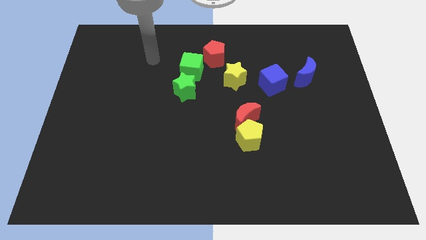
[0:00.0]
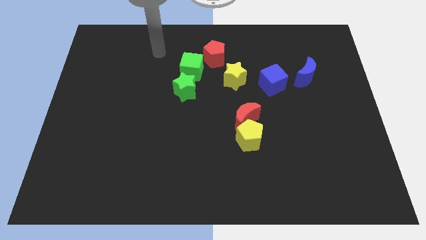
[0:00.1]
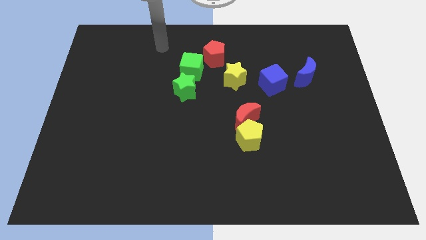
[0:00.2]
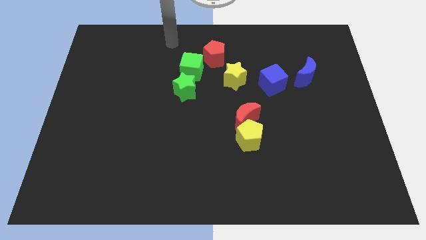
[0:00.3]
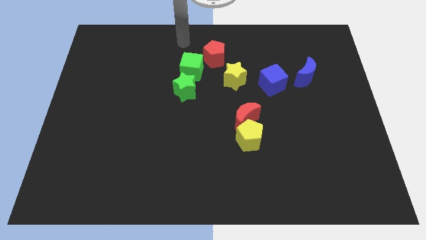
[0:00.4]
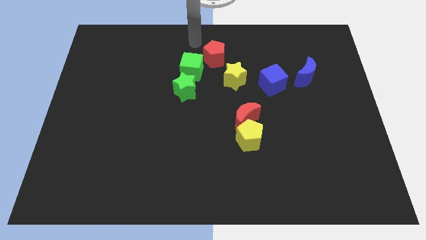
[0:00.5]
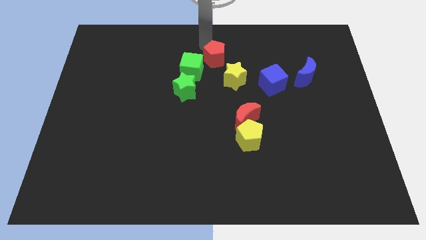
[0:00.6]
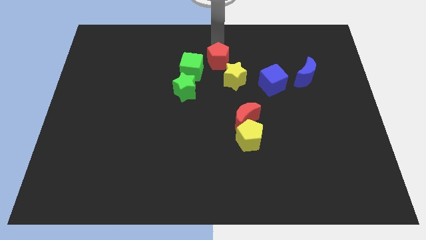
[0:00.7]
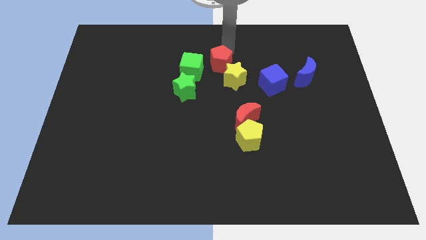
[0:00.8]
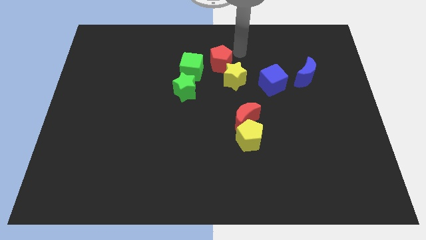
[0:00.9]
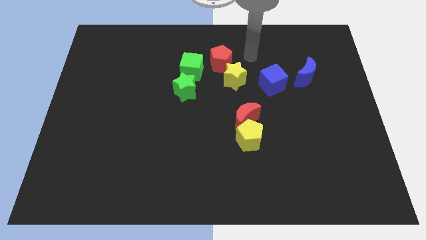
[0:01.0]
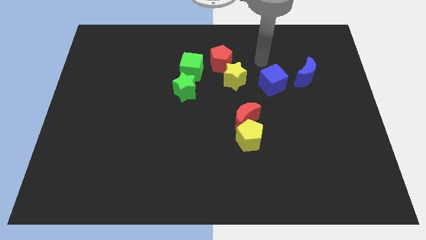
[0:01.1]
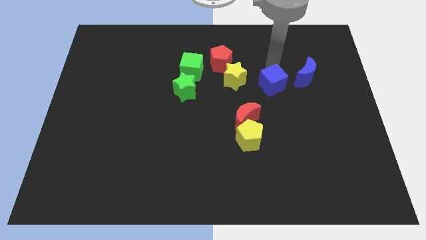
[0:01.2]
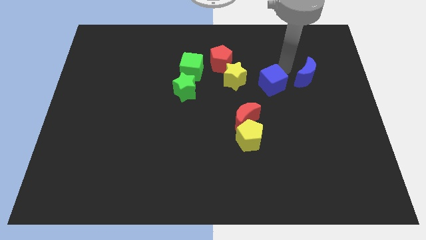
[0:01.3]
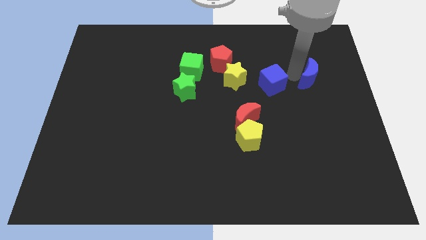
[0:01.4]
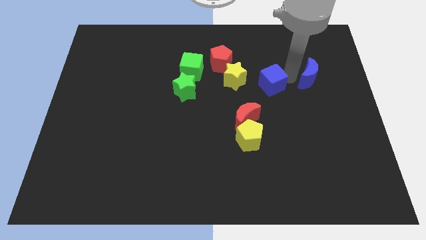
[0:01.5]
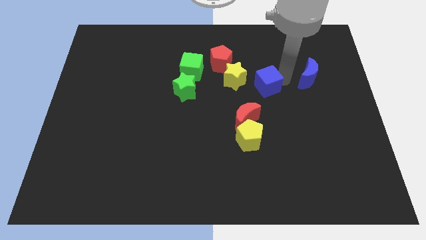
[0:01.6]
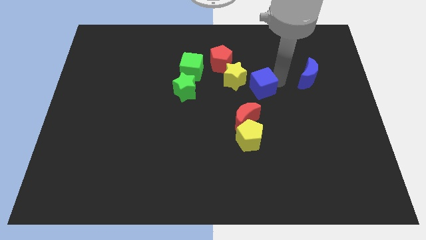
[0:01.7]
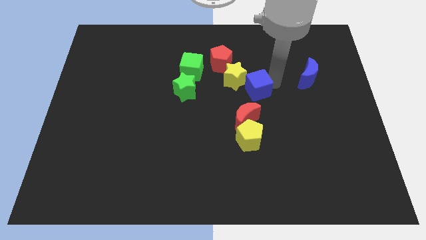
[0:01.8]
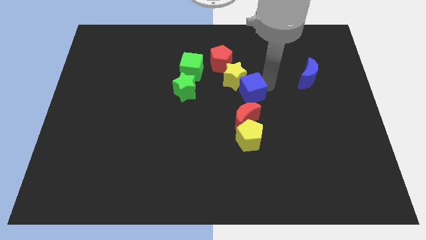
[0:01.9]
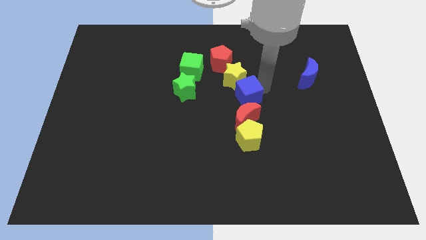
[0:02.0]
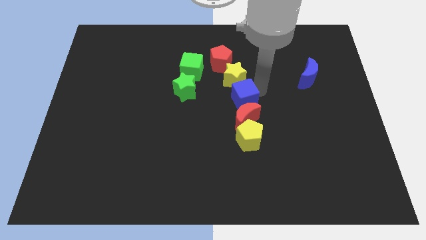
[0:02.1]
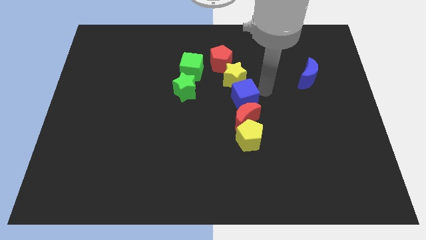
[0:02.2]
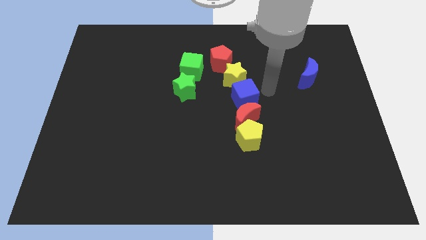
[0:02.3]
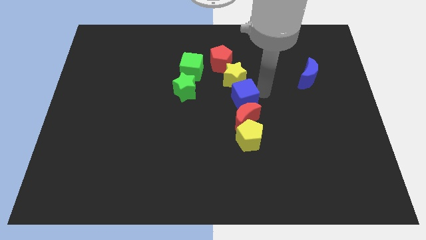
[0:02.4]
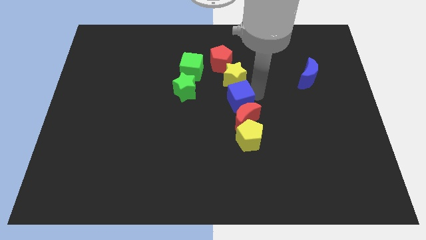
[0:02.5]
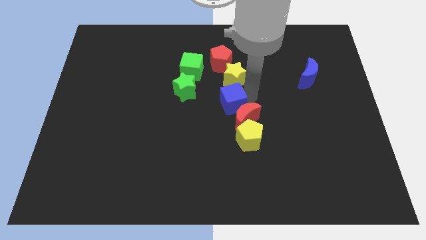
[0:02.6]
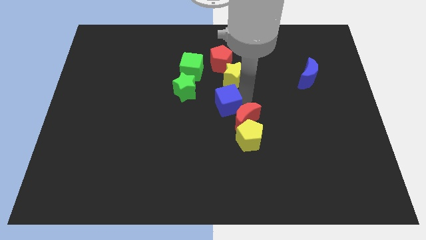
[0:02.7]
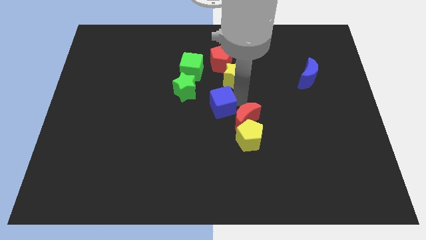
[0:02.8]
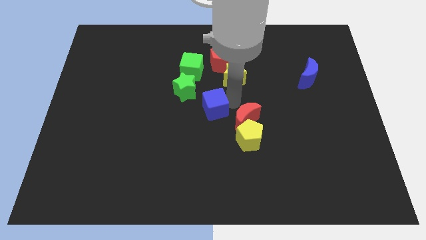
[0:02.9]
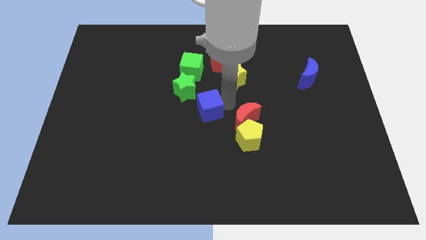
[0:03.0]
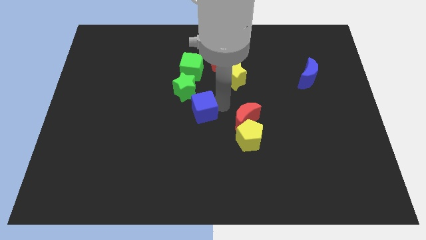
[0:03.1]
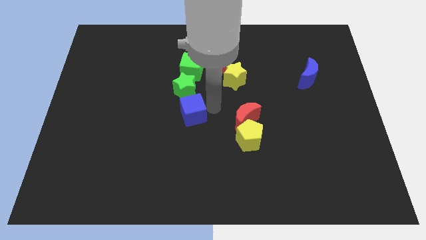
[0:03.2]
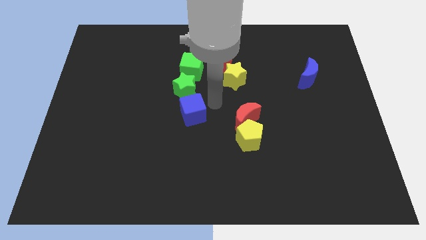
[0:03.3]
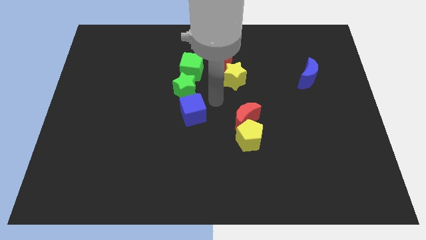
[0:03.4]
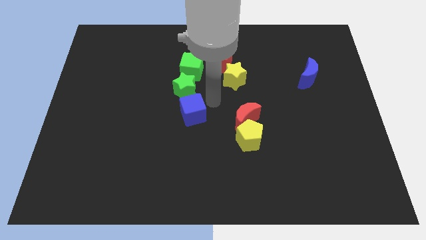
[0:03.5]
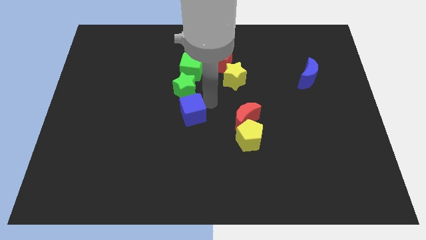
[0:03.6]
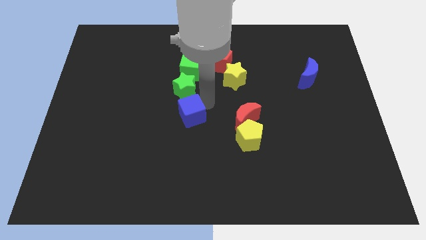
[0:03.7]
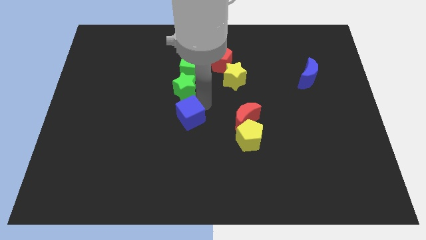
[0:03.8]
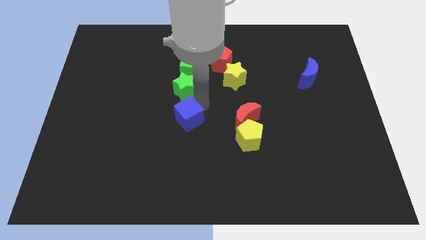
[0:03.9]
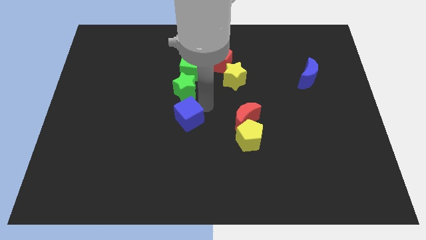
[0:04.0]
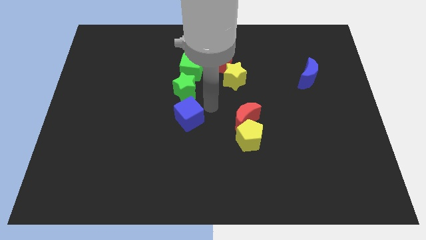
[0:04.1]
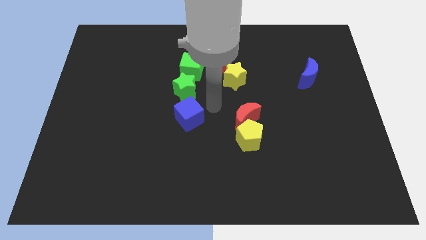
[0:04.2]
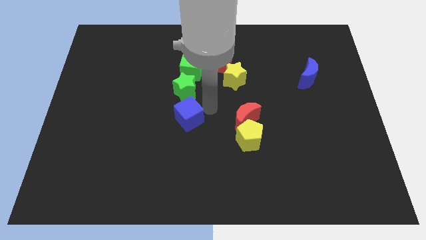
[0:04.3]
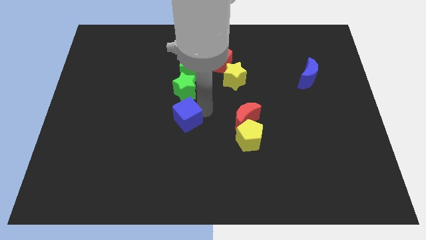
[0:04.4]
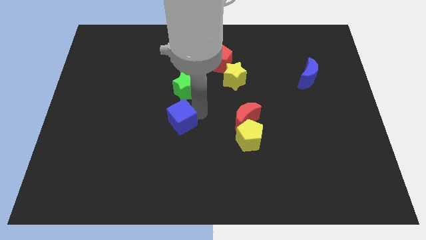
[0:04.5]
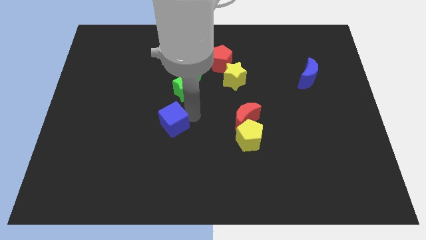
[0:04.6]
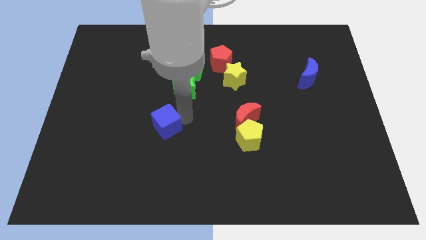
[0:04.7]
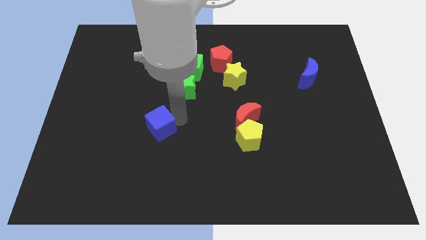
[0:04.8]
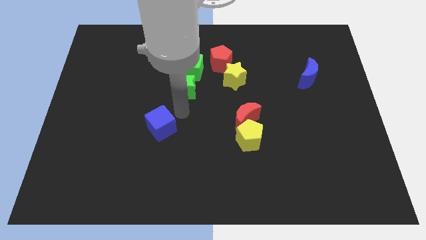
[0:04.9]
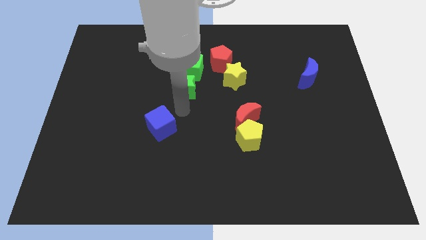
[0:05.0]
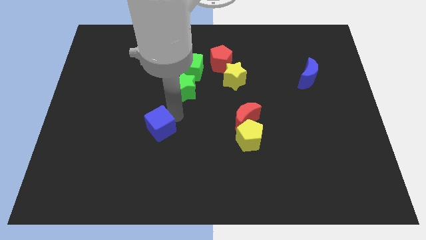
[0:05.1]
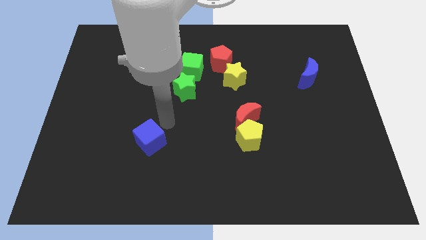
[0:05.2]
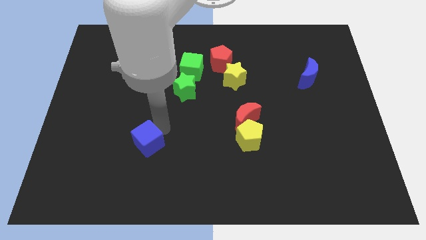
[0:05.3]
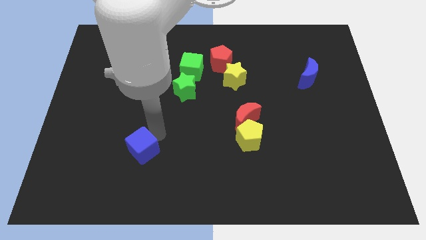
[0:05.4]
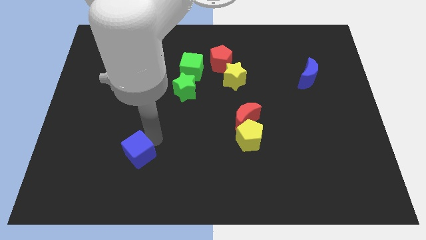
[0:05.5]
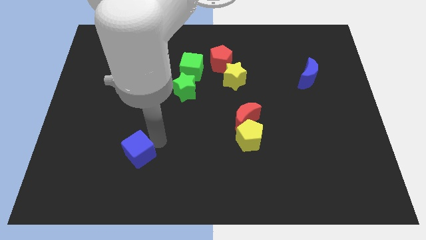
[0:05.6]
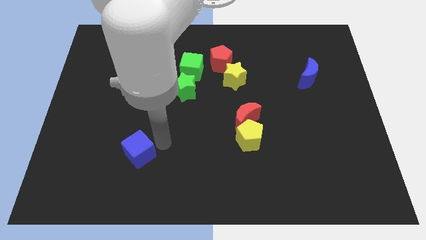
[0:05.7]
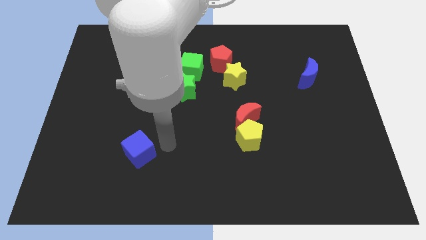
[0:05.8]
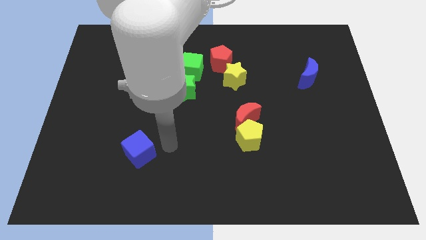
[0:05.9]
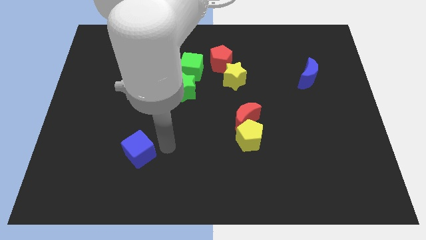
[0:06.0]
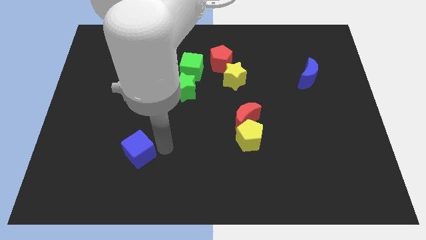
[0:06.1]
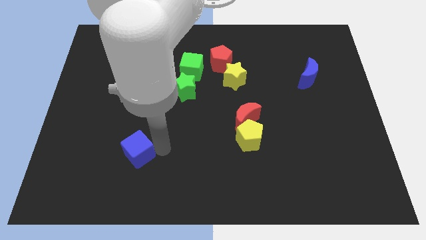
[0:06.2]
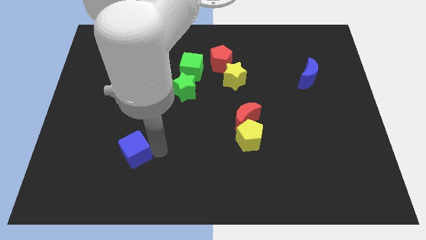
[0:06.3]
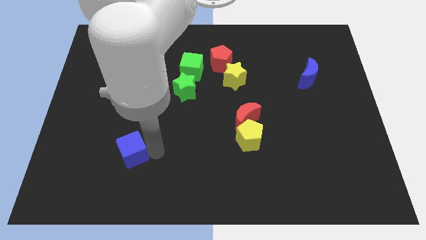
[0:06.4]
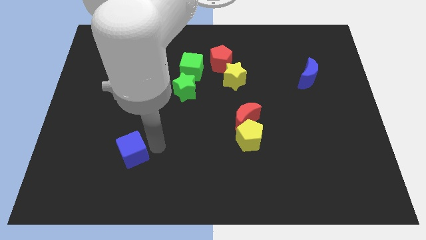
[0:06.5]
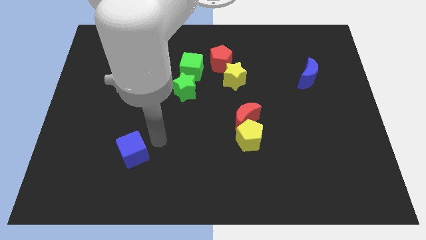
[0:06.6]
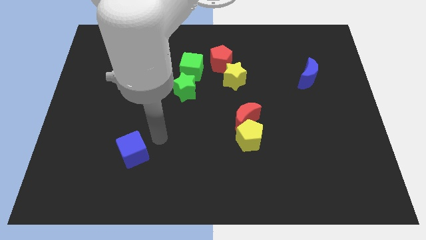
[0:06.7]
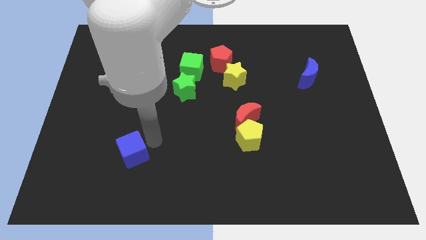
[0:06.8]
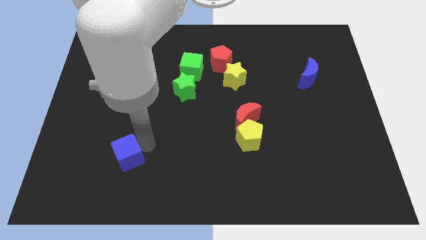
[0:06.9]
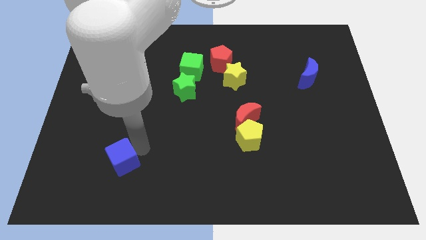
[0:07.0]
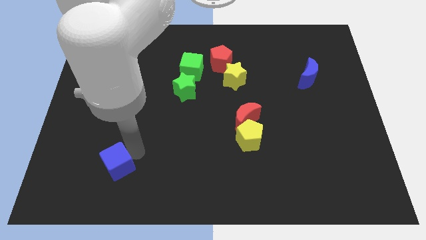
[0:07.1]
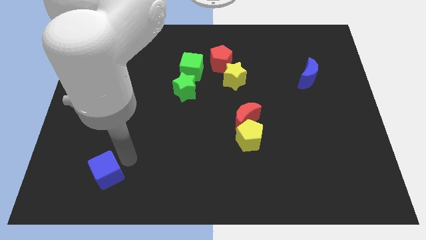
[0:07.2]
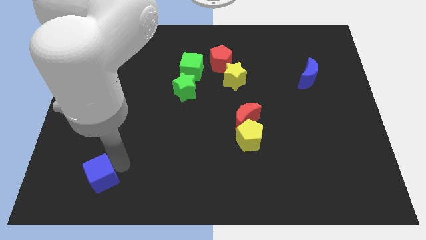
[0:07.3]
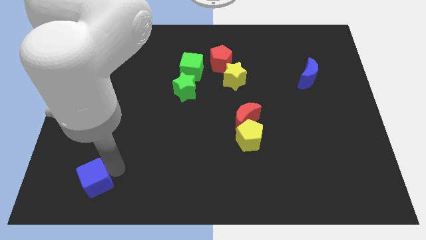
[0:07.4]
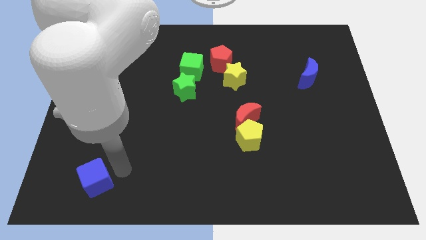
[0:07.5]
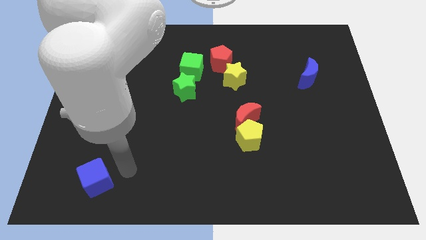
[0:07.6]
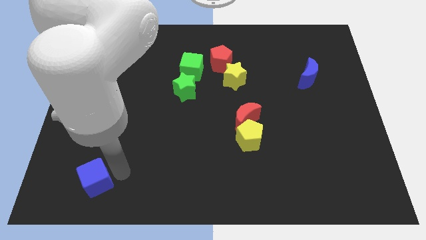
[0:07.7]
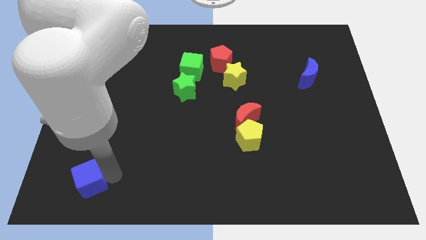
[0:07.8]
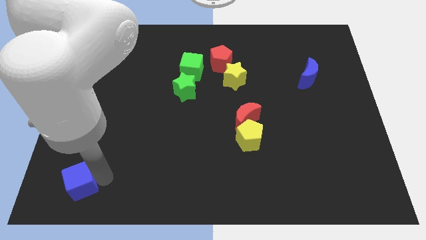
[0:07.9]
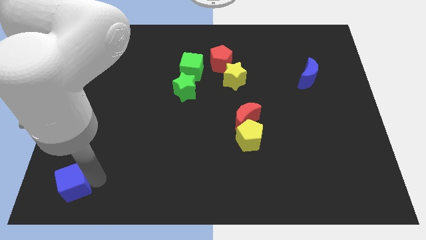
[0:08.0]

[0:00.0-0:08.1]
put the blue cube to the bottom left of the board
